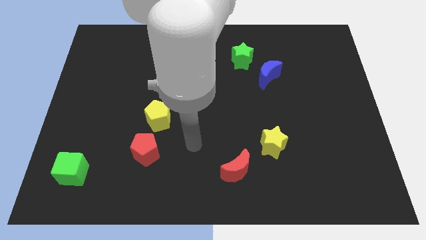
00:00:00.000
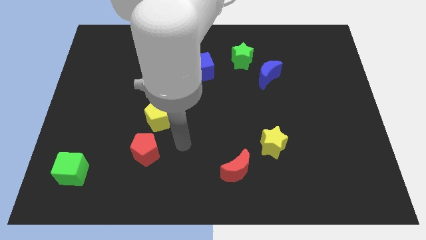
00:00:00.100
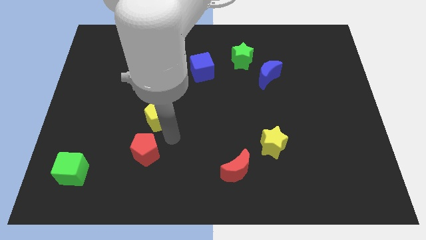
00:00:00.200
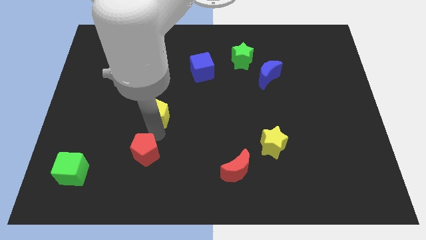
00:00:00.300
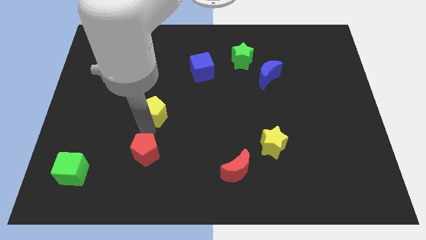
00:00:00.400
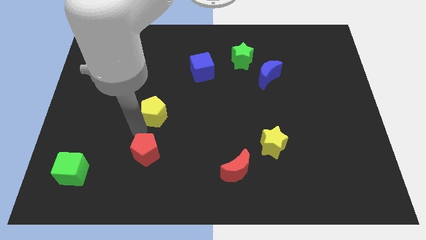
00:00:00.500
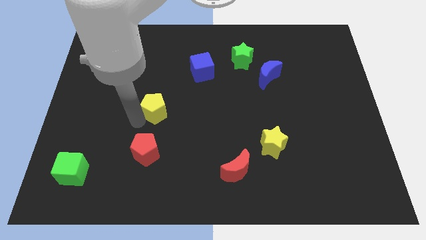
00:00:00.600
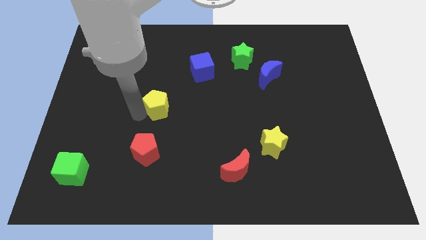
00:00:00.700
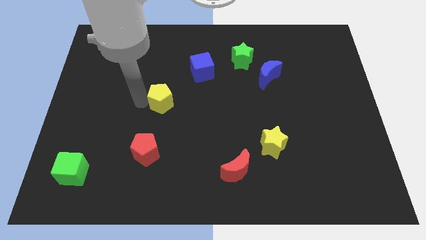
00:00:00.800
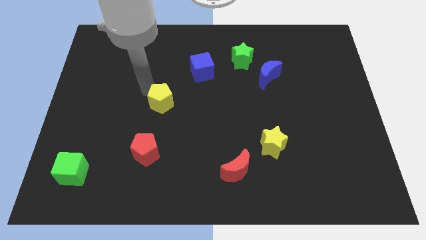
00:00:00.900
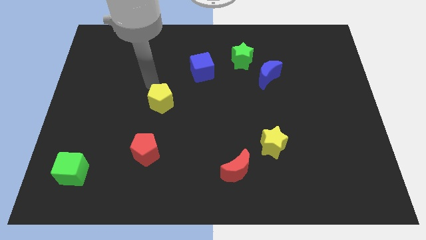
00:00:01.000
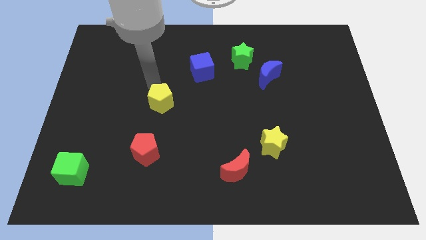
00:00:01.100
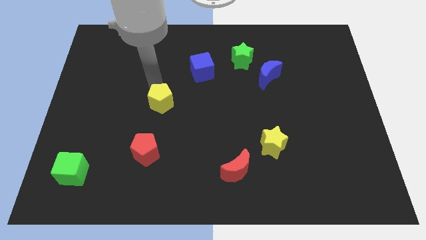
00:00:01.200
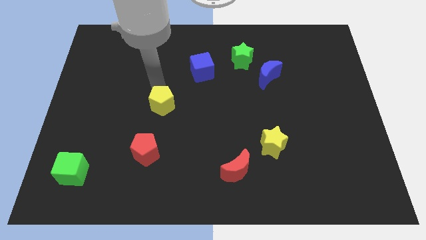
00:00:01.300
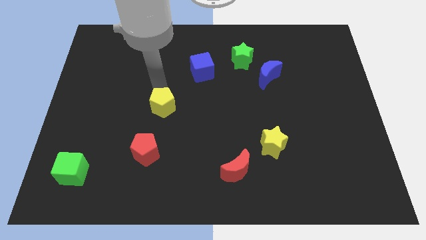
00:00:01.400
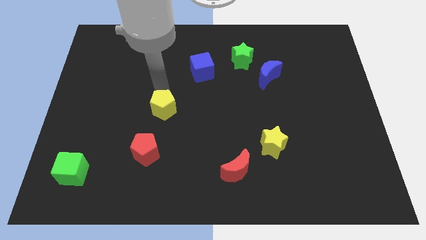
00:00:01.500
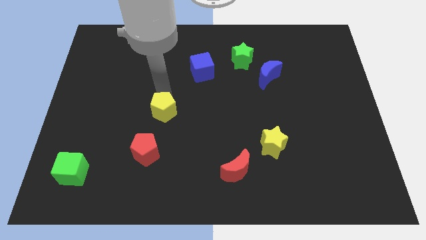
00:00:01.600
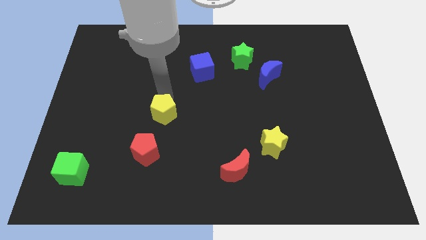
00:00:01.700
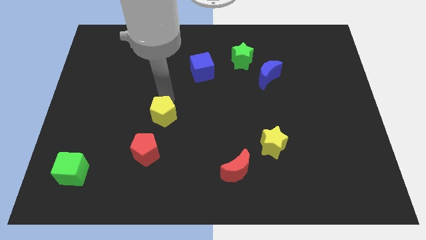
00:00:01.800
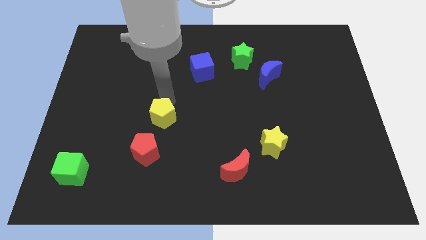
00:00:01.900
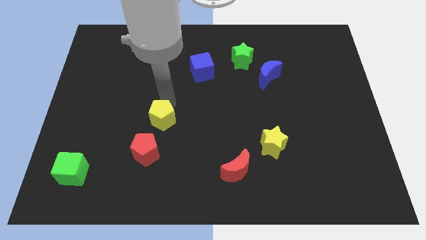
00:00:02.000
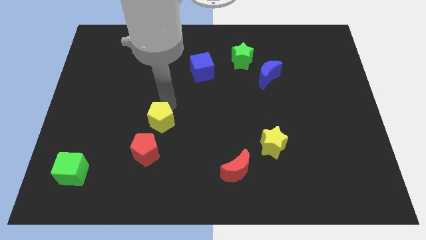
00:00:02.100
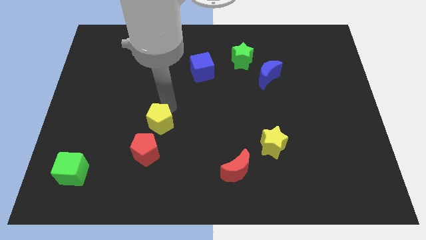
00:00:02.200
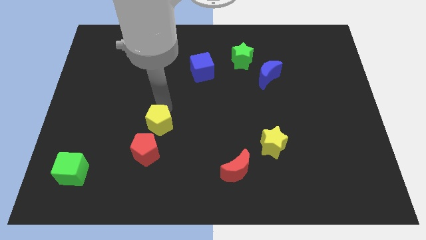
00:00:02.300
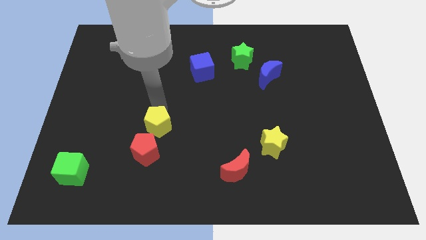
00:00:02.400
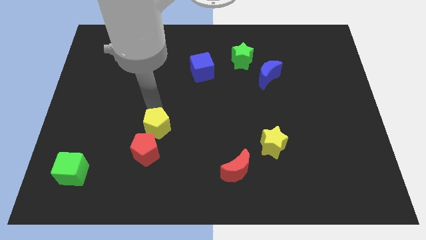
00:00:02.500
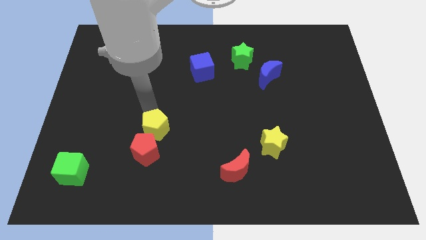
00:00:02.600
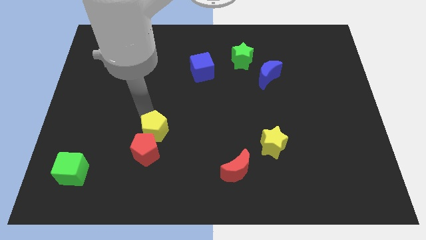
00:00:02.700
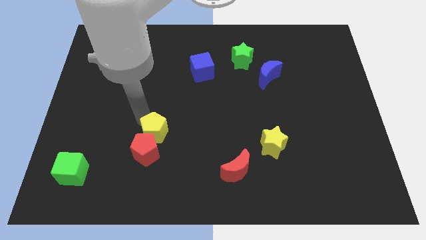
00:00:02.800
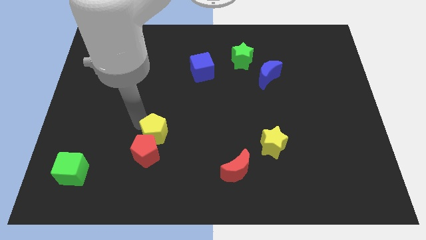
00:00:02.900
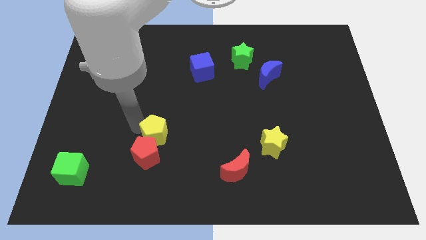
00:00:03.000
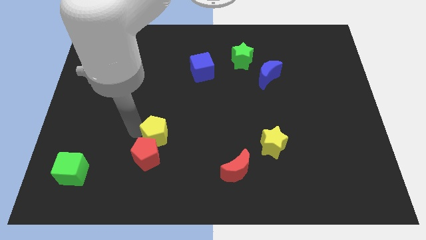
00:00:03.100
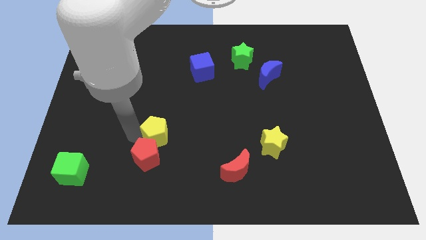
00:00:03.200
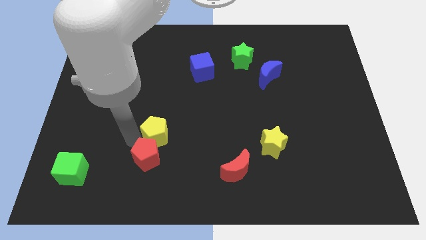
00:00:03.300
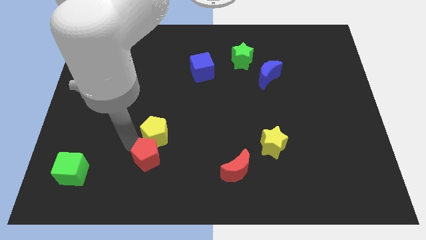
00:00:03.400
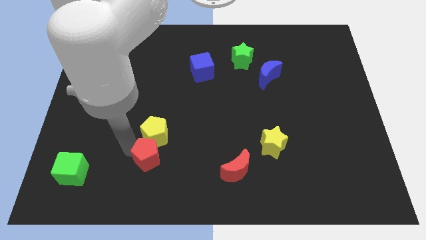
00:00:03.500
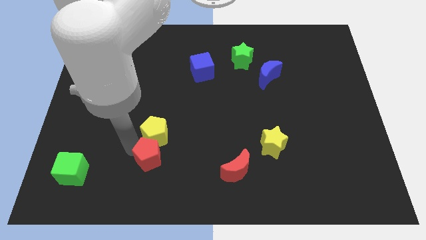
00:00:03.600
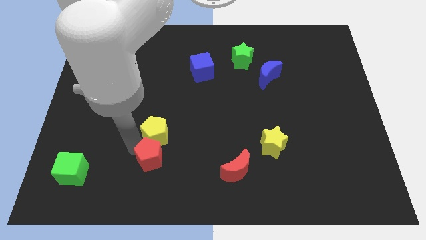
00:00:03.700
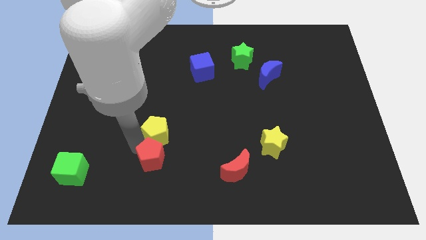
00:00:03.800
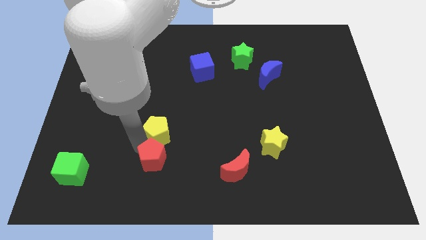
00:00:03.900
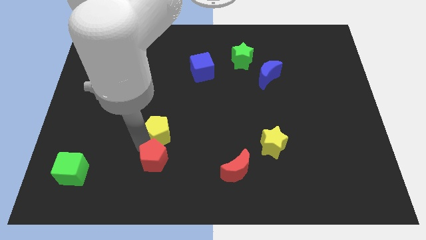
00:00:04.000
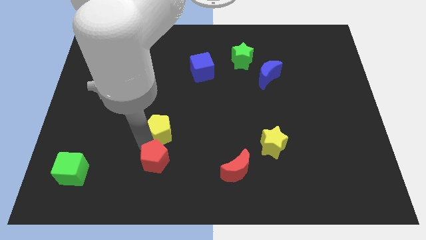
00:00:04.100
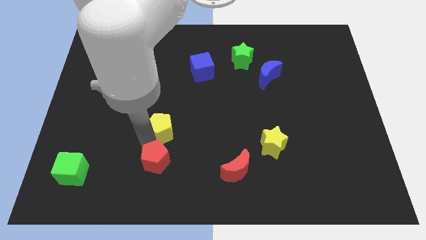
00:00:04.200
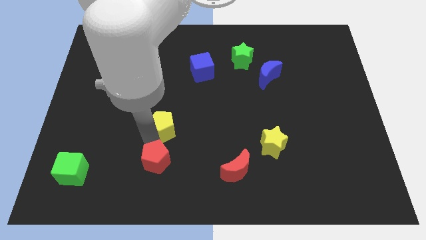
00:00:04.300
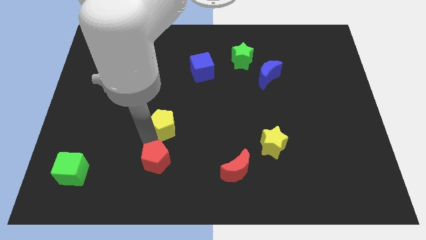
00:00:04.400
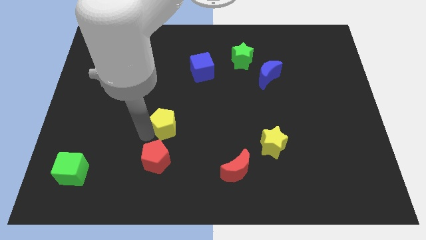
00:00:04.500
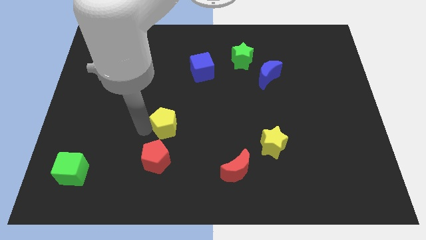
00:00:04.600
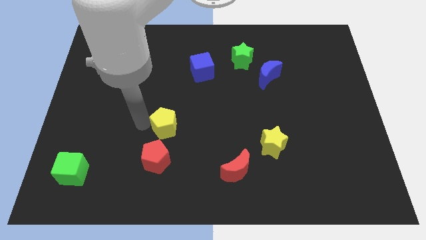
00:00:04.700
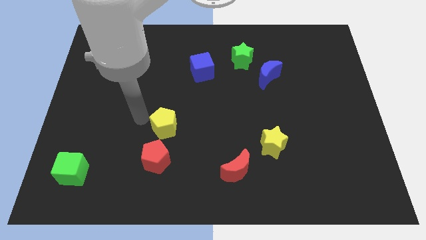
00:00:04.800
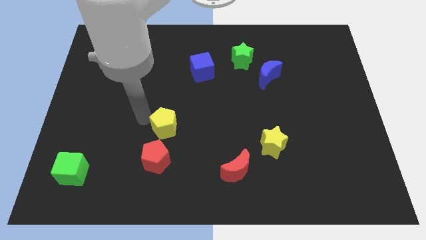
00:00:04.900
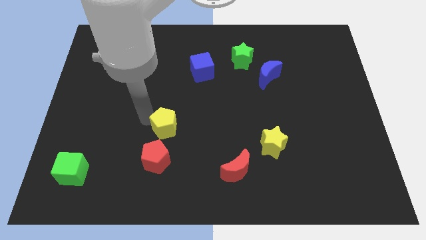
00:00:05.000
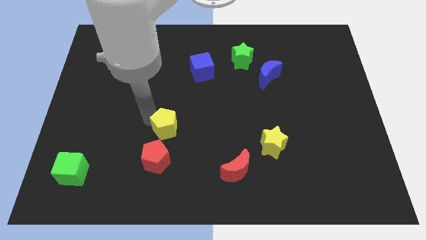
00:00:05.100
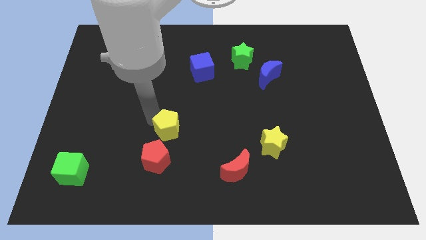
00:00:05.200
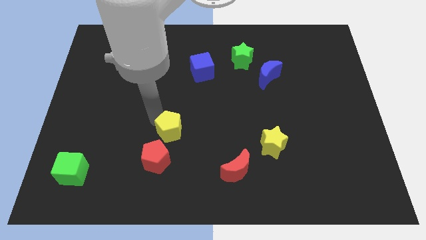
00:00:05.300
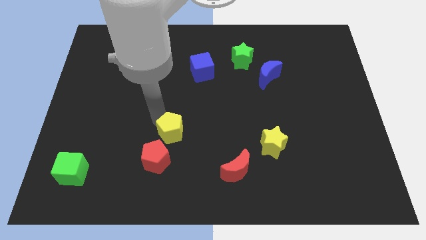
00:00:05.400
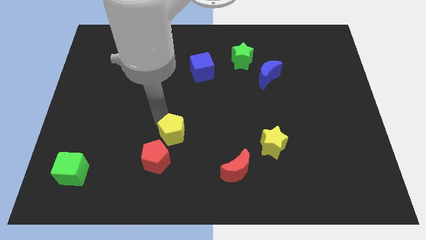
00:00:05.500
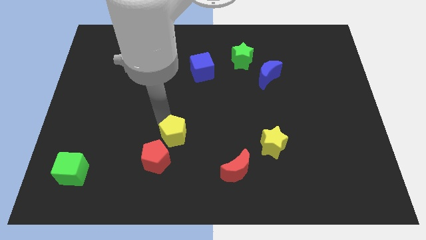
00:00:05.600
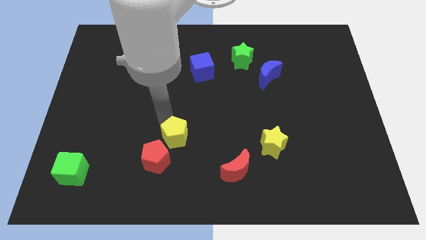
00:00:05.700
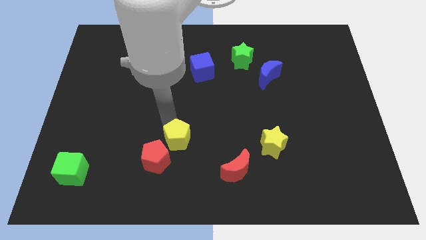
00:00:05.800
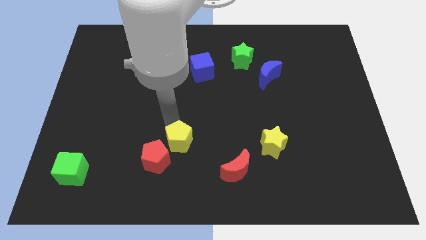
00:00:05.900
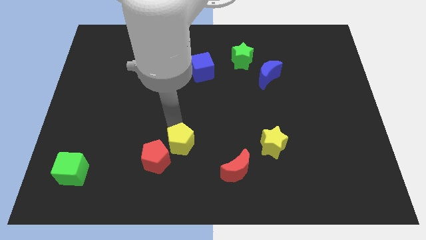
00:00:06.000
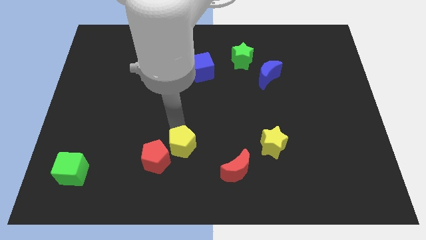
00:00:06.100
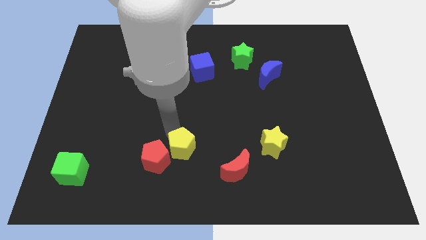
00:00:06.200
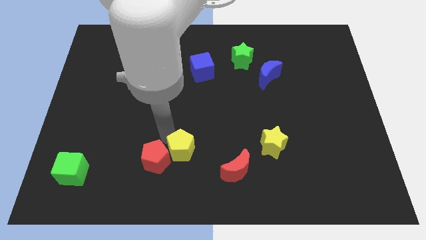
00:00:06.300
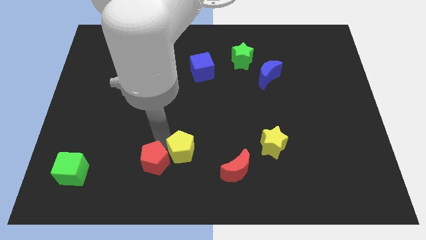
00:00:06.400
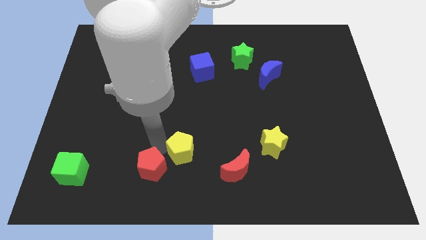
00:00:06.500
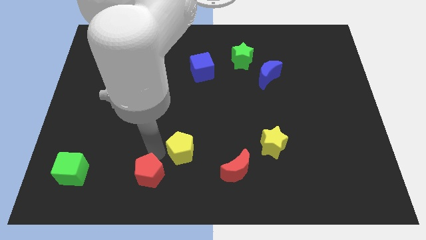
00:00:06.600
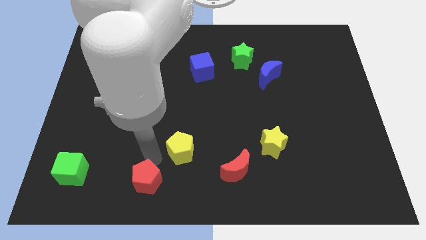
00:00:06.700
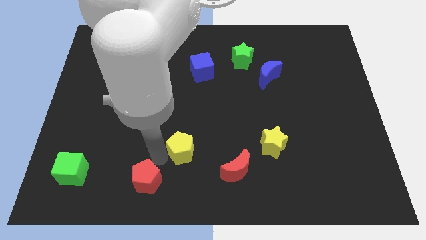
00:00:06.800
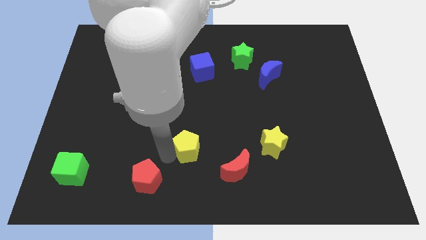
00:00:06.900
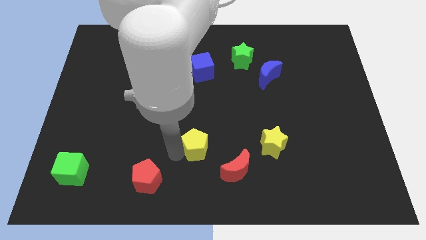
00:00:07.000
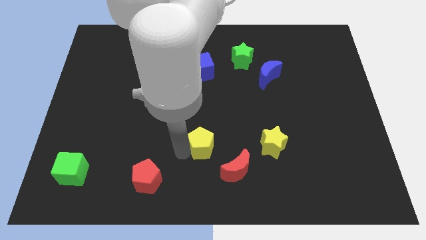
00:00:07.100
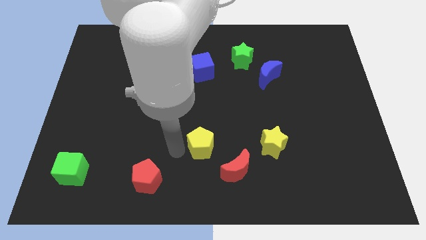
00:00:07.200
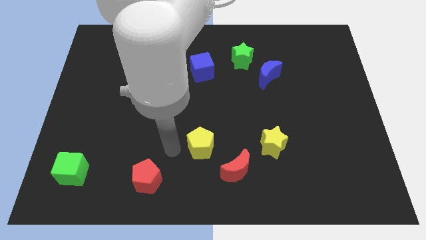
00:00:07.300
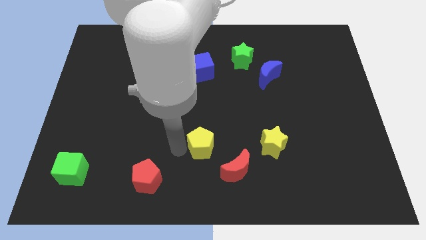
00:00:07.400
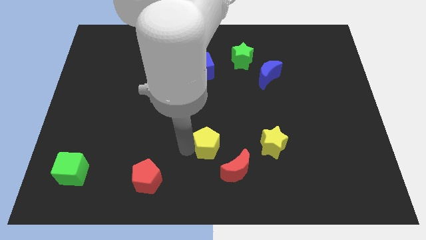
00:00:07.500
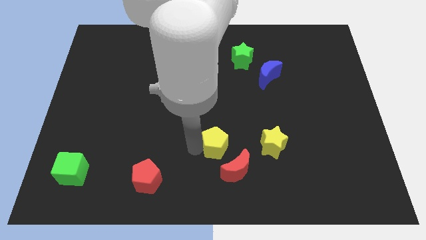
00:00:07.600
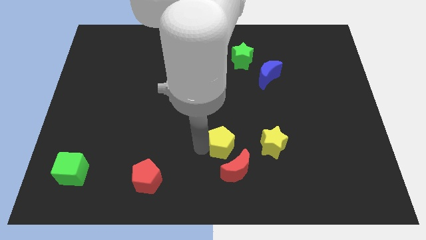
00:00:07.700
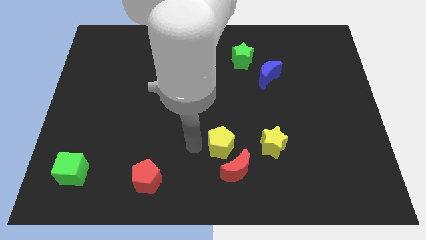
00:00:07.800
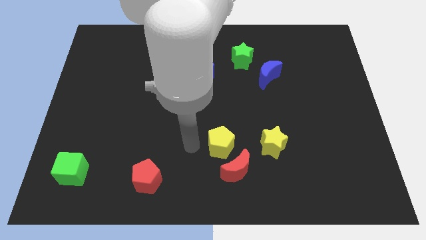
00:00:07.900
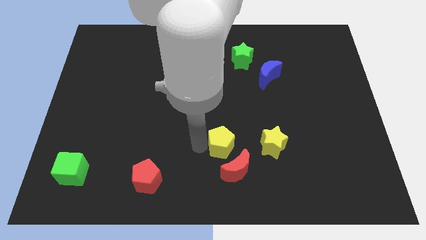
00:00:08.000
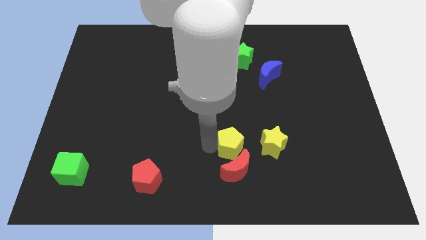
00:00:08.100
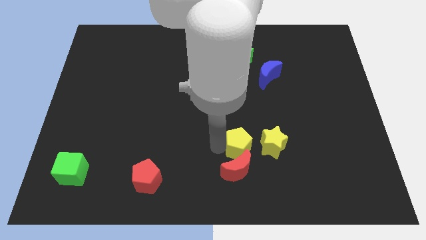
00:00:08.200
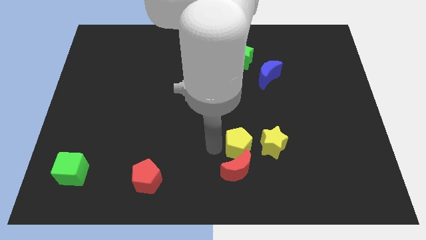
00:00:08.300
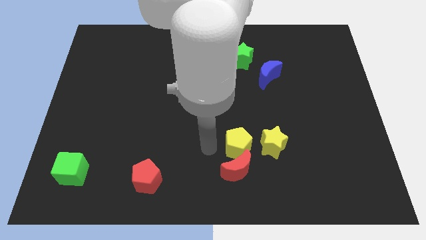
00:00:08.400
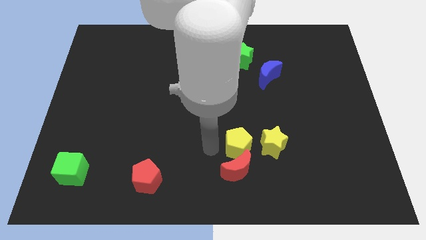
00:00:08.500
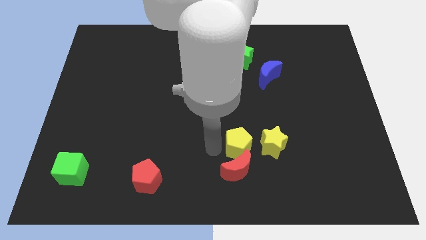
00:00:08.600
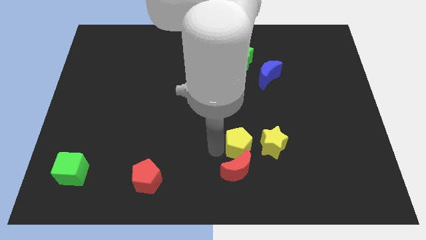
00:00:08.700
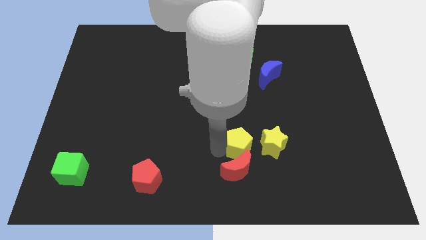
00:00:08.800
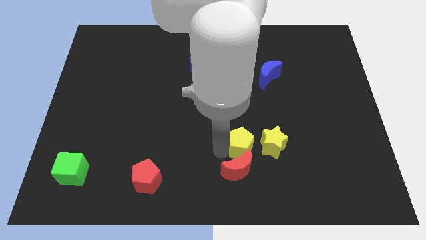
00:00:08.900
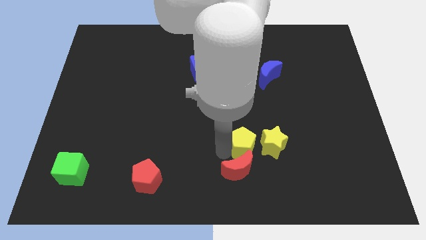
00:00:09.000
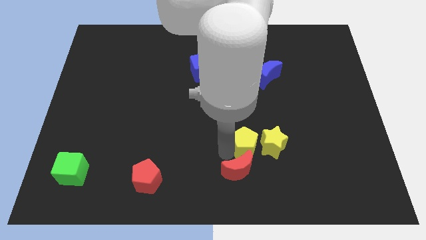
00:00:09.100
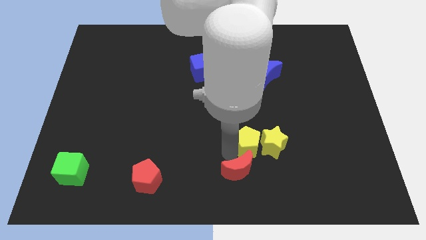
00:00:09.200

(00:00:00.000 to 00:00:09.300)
push the yellow pentagon to the yellow star
